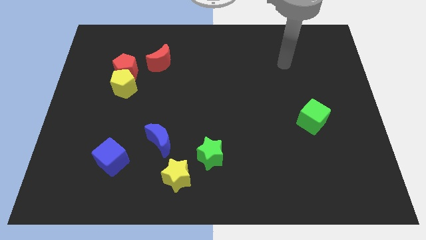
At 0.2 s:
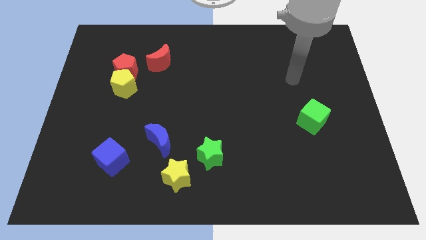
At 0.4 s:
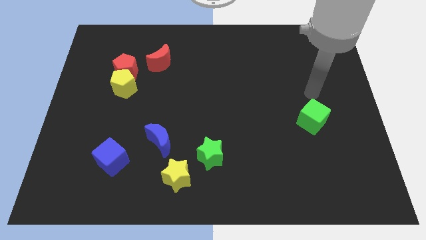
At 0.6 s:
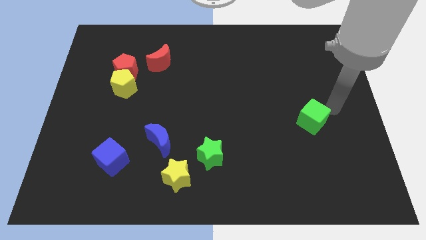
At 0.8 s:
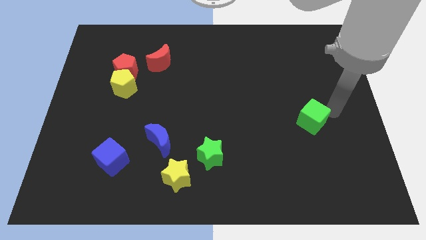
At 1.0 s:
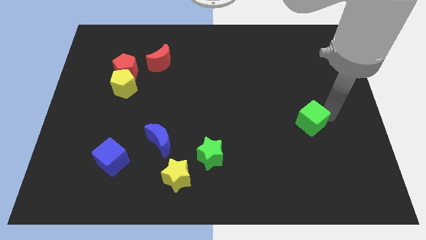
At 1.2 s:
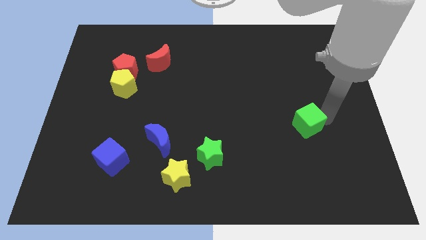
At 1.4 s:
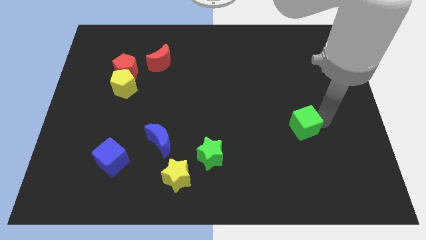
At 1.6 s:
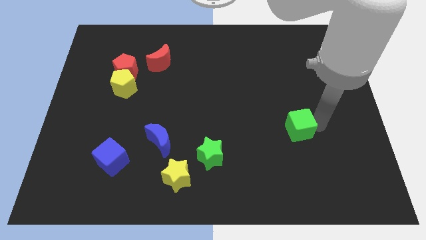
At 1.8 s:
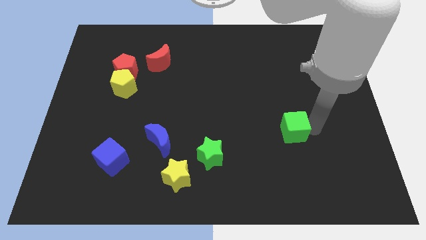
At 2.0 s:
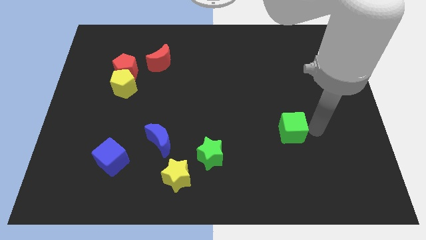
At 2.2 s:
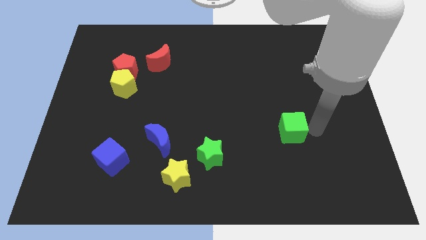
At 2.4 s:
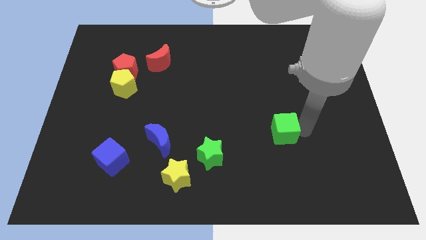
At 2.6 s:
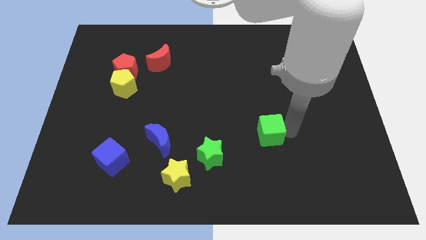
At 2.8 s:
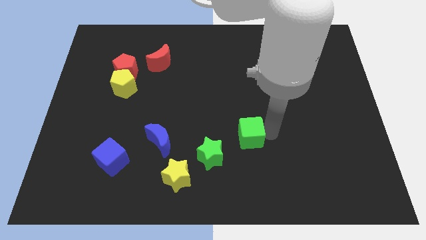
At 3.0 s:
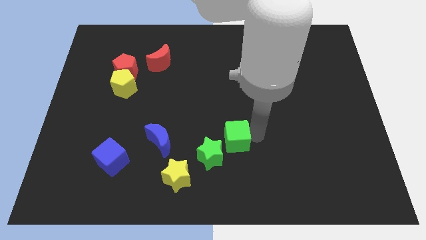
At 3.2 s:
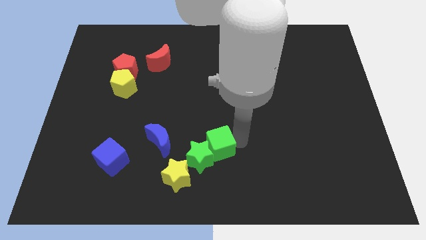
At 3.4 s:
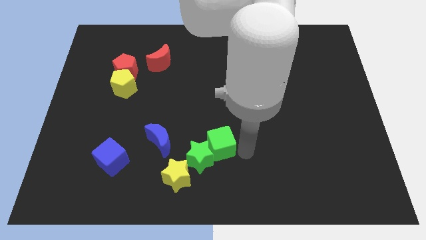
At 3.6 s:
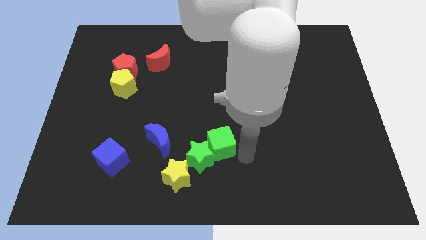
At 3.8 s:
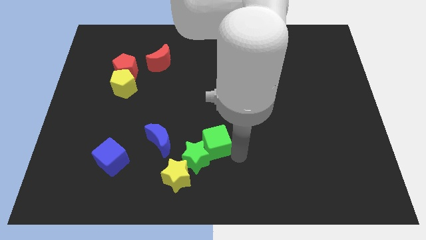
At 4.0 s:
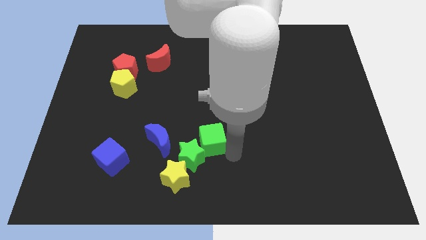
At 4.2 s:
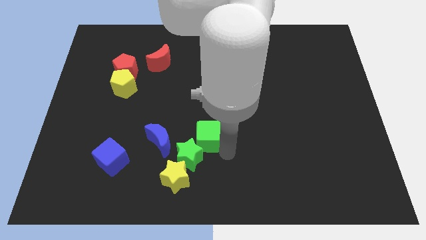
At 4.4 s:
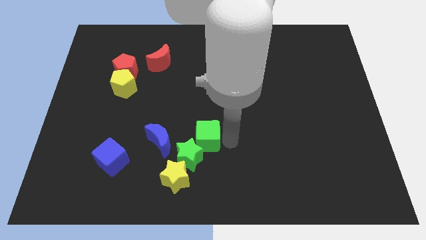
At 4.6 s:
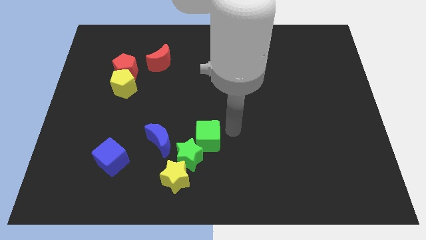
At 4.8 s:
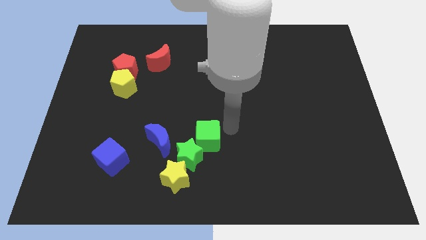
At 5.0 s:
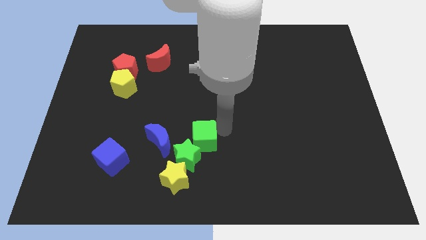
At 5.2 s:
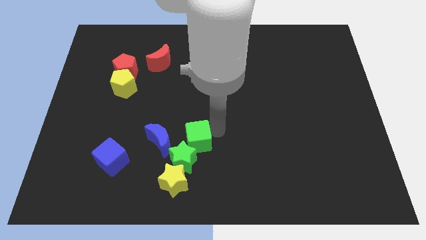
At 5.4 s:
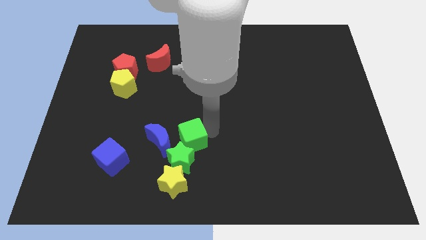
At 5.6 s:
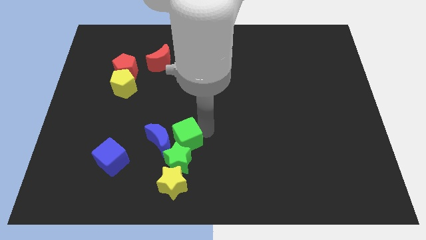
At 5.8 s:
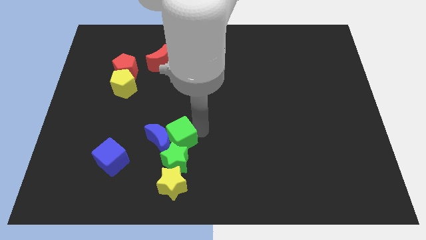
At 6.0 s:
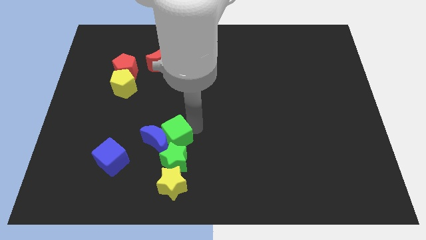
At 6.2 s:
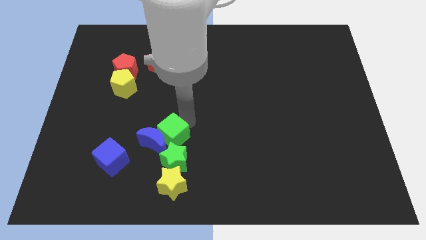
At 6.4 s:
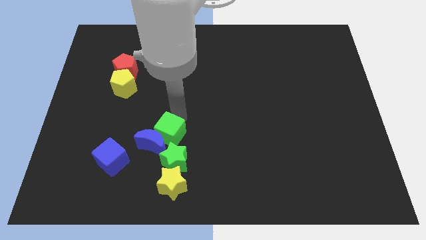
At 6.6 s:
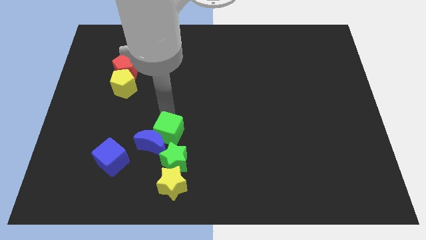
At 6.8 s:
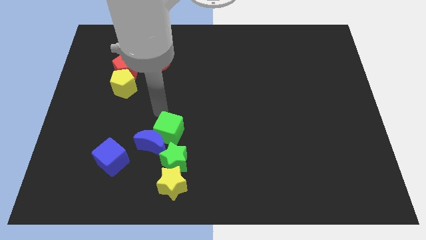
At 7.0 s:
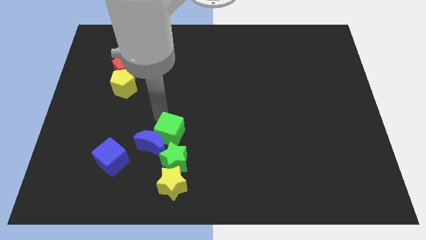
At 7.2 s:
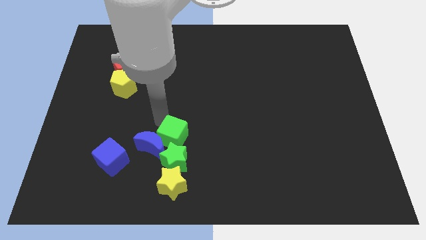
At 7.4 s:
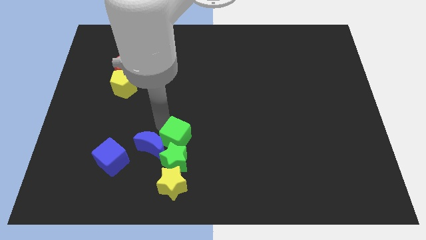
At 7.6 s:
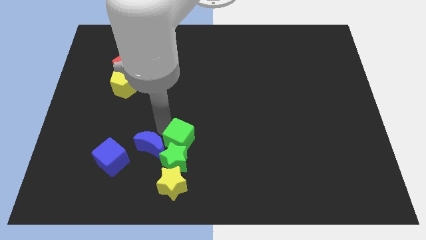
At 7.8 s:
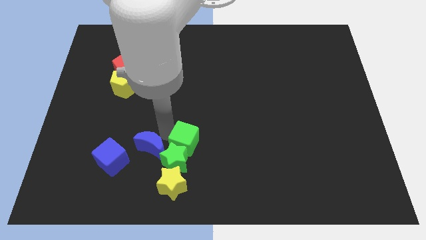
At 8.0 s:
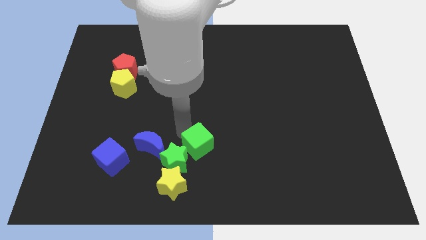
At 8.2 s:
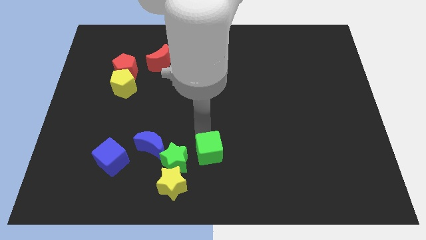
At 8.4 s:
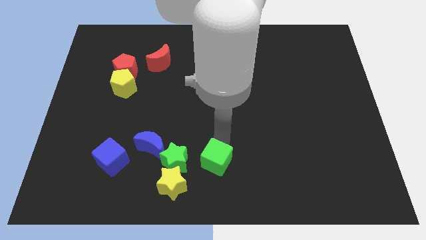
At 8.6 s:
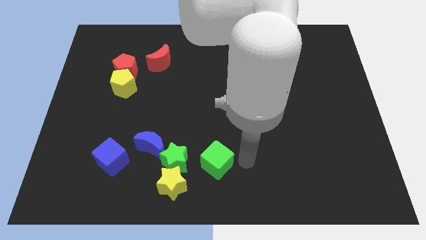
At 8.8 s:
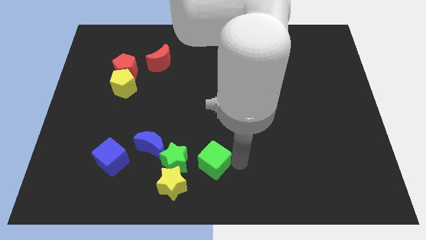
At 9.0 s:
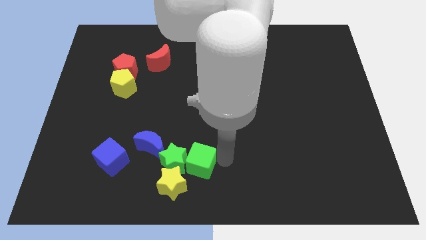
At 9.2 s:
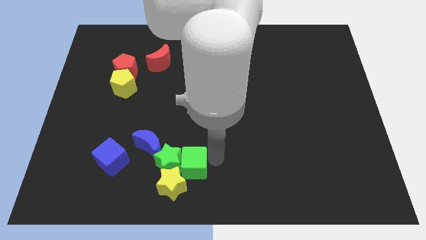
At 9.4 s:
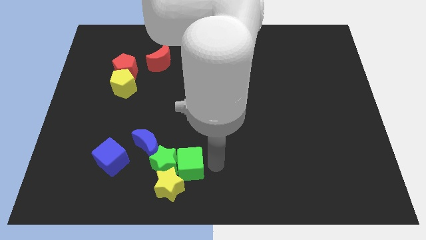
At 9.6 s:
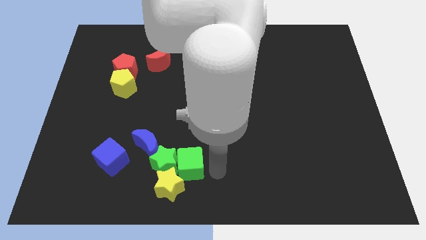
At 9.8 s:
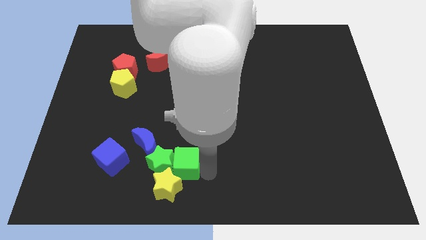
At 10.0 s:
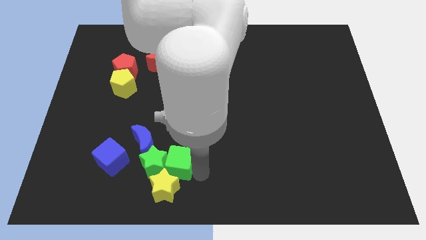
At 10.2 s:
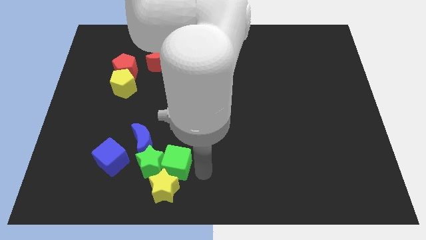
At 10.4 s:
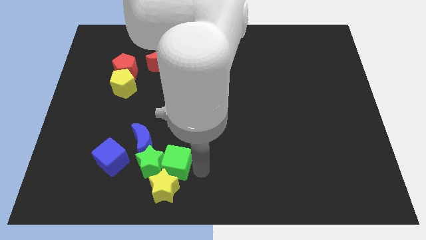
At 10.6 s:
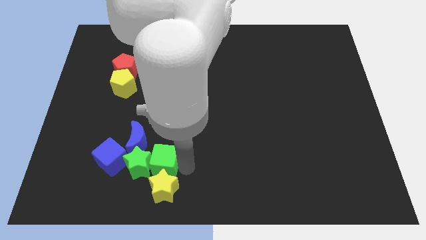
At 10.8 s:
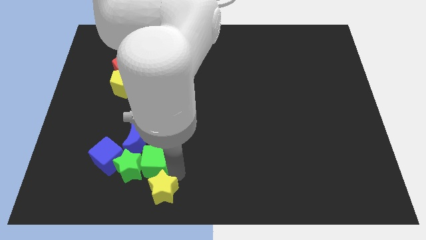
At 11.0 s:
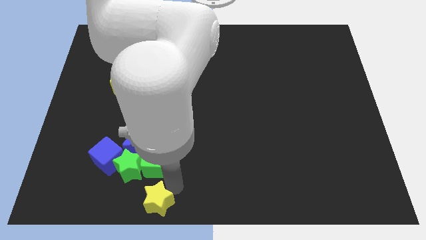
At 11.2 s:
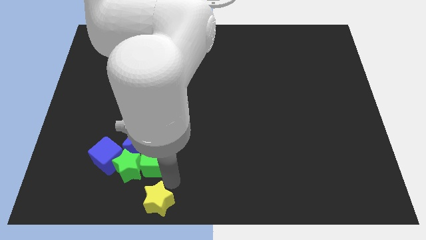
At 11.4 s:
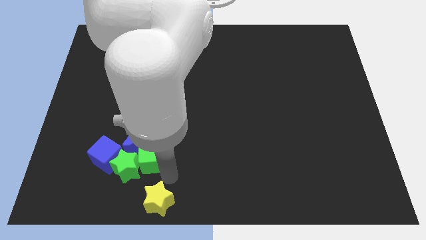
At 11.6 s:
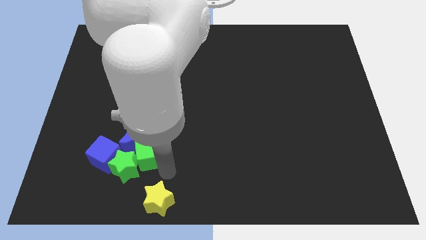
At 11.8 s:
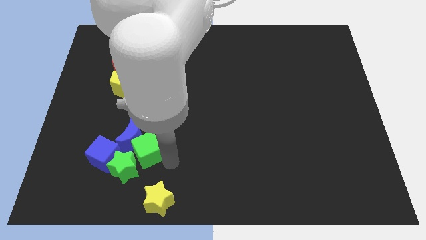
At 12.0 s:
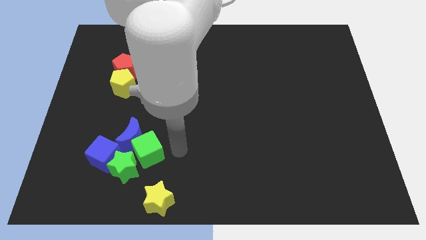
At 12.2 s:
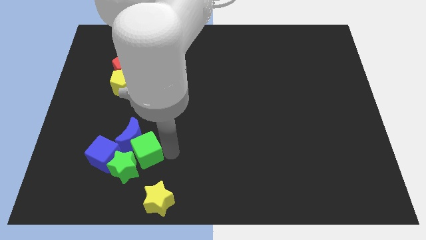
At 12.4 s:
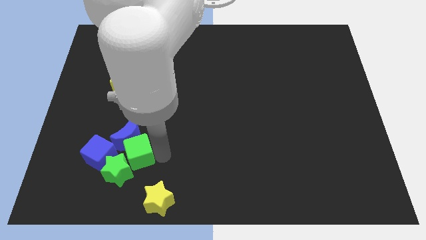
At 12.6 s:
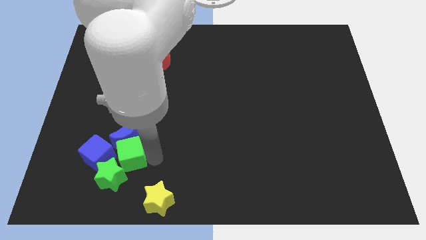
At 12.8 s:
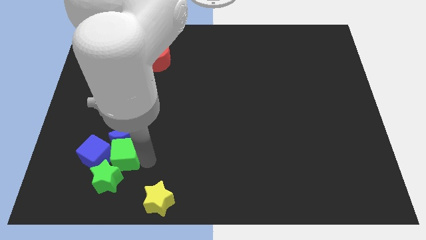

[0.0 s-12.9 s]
slide the green cube to the blue cube

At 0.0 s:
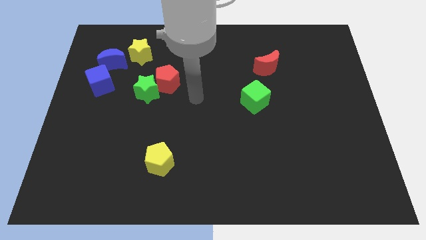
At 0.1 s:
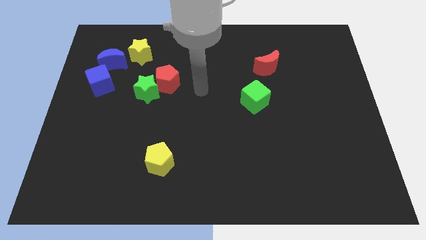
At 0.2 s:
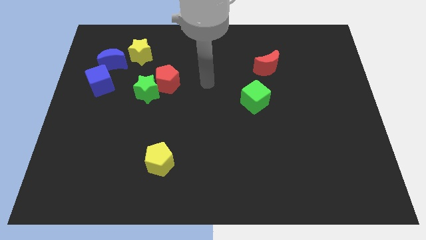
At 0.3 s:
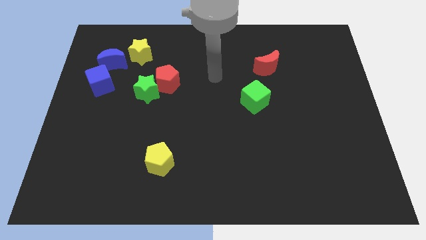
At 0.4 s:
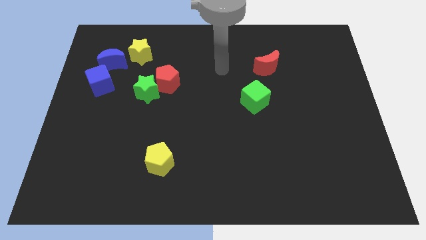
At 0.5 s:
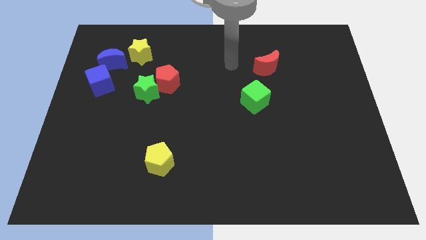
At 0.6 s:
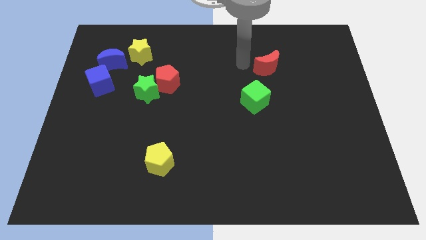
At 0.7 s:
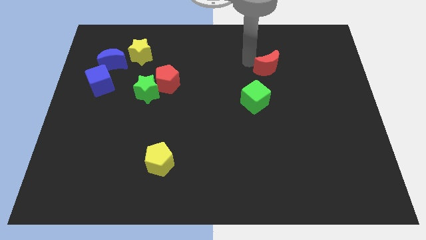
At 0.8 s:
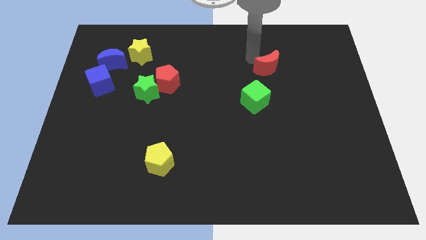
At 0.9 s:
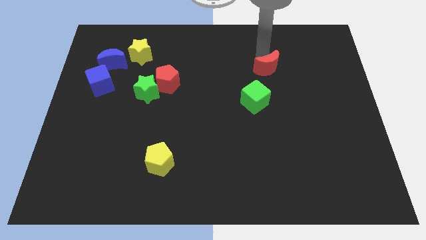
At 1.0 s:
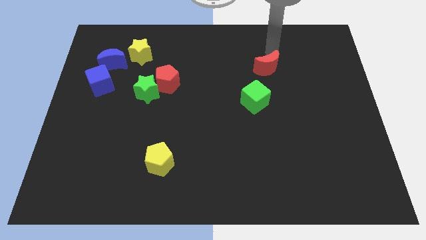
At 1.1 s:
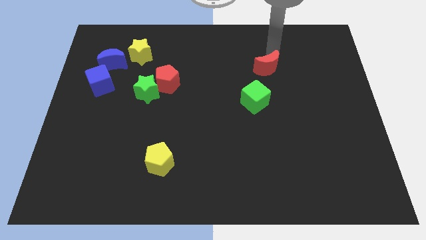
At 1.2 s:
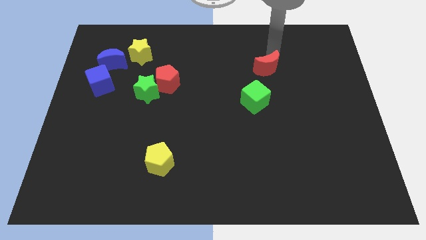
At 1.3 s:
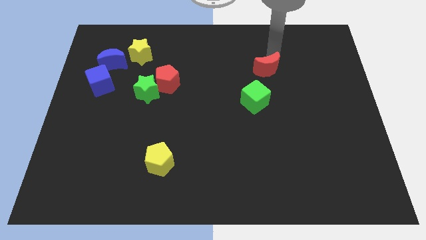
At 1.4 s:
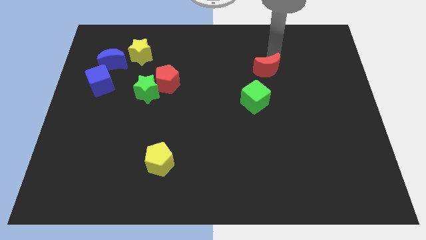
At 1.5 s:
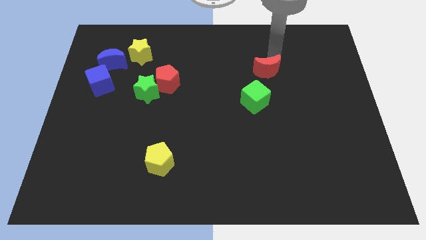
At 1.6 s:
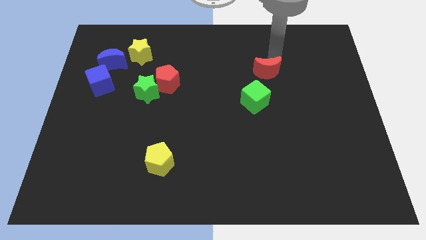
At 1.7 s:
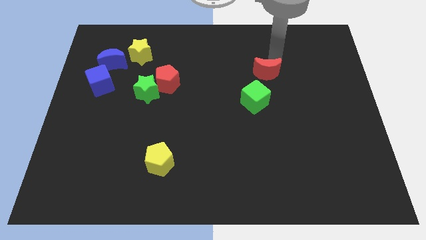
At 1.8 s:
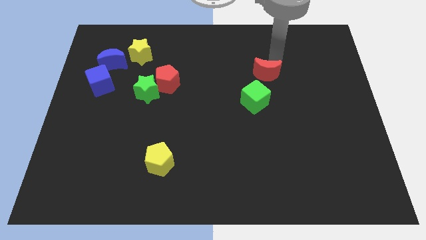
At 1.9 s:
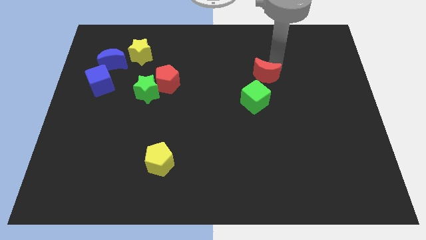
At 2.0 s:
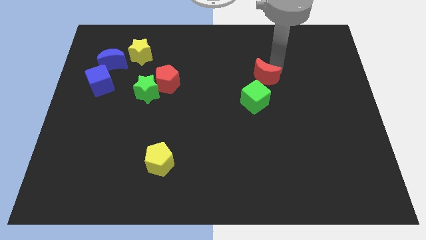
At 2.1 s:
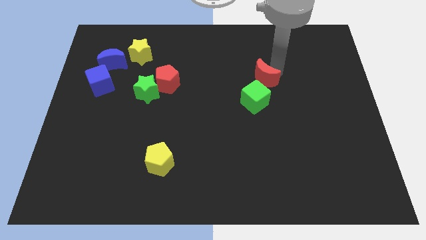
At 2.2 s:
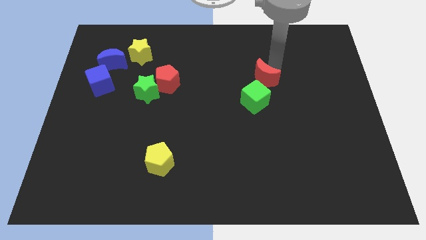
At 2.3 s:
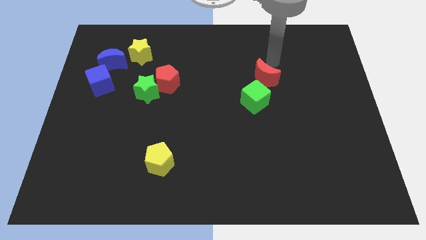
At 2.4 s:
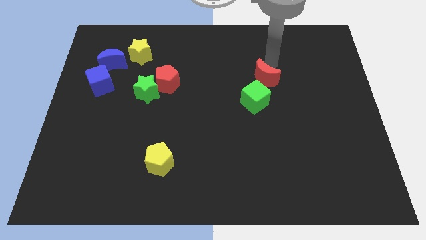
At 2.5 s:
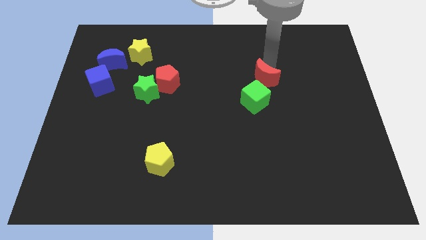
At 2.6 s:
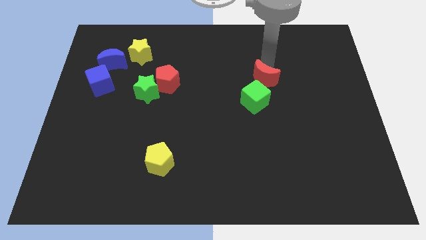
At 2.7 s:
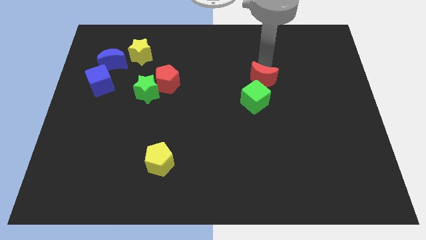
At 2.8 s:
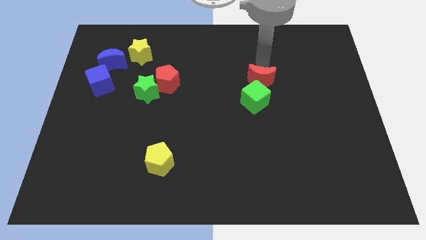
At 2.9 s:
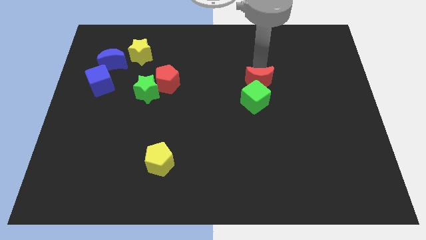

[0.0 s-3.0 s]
put the red moon close to the green cube
